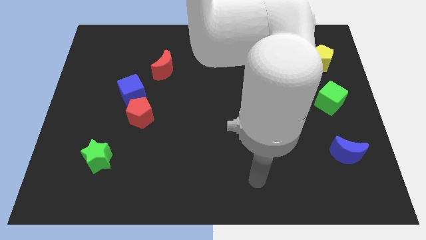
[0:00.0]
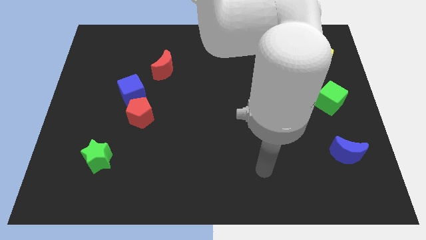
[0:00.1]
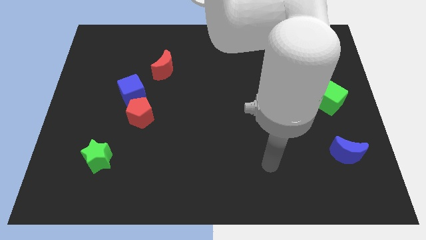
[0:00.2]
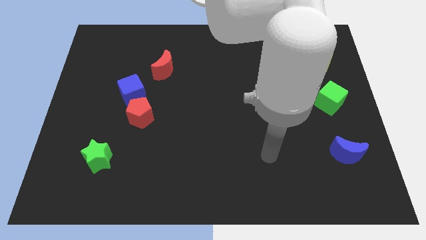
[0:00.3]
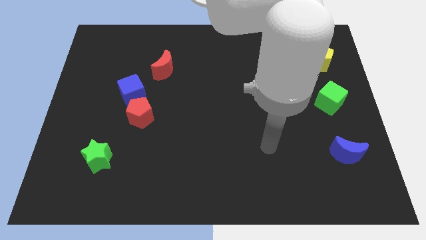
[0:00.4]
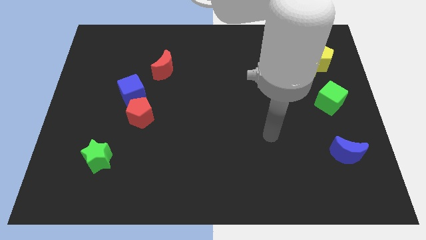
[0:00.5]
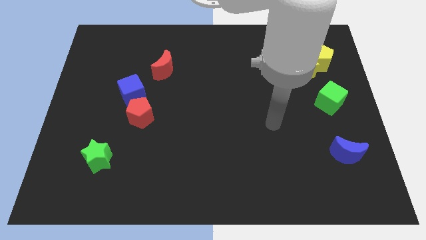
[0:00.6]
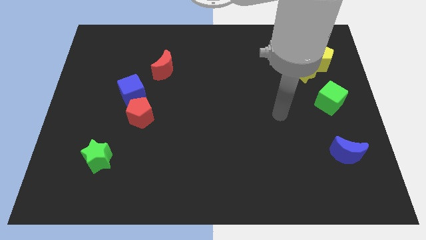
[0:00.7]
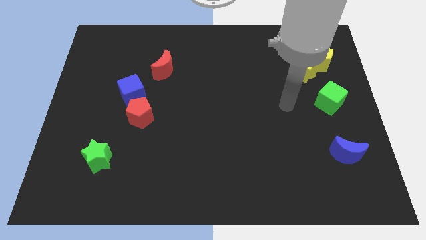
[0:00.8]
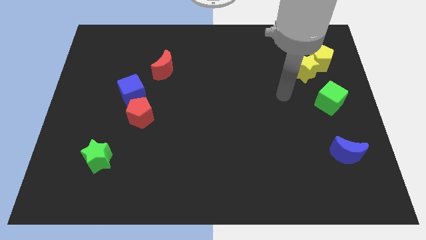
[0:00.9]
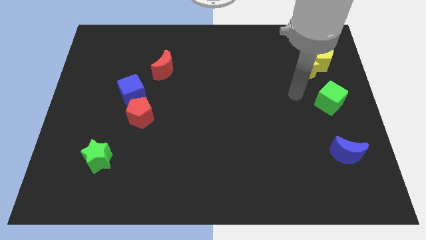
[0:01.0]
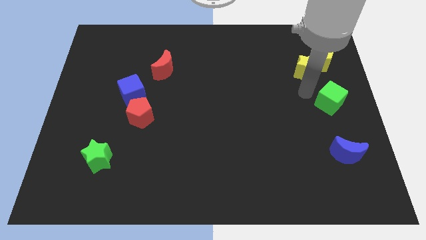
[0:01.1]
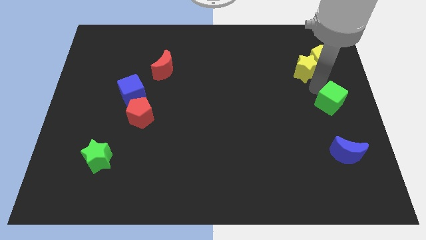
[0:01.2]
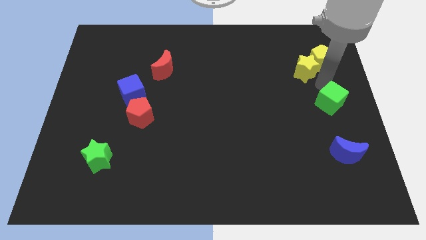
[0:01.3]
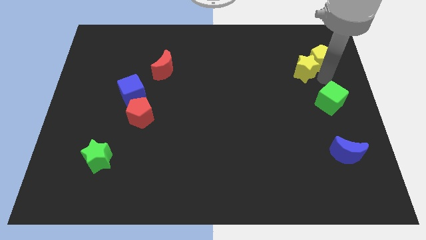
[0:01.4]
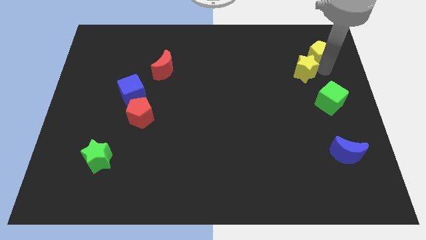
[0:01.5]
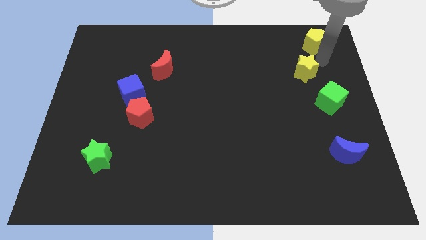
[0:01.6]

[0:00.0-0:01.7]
move the yellow star away from the yellow pentagon

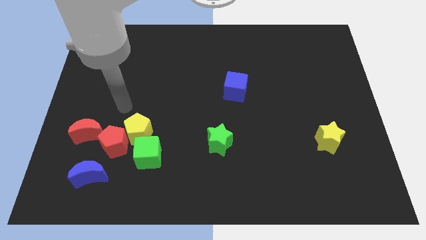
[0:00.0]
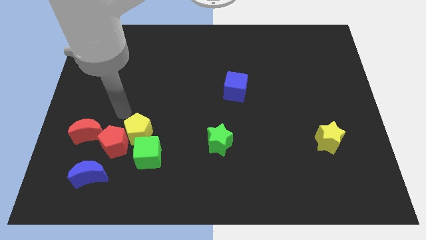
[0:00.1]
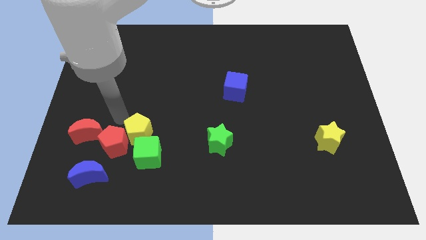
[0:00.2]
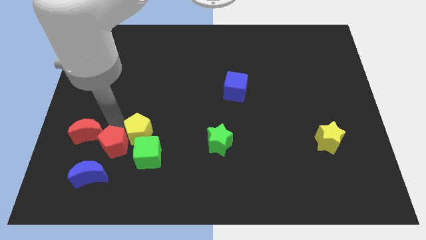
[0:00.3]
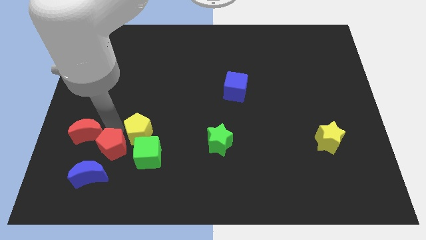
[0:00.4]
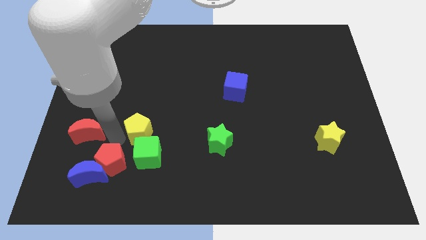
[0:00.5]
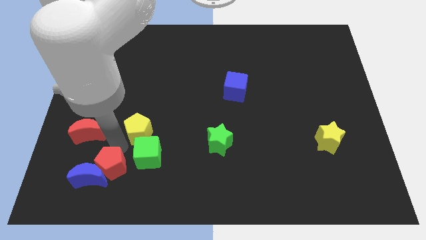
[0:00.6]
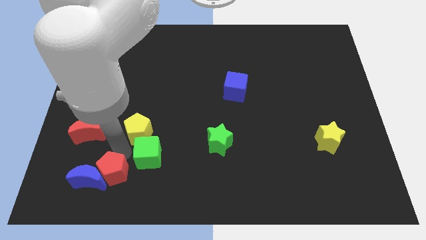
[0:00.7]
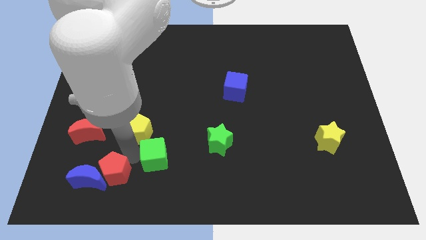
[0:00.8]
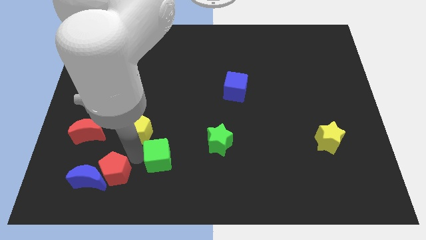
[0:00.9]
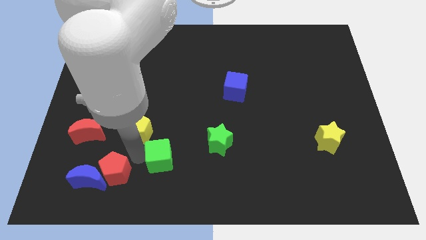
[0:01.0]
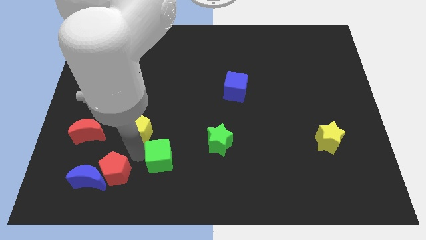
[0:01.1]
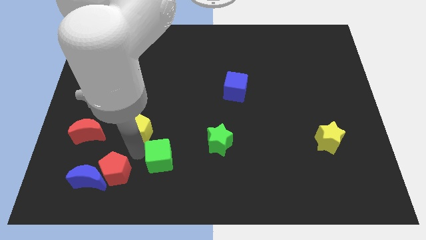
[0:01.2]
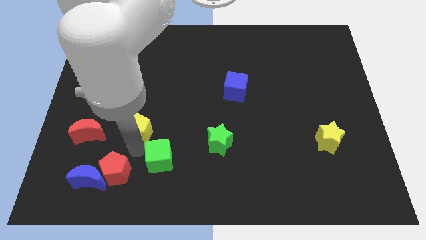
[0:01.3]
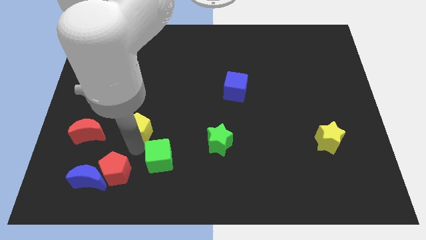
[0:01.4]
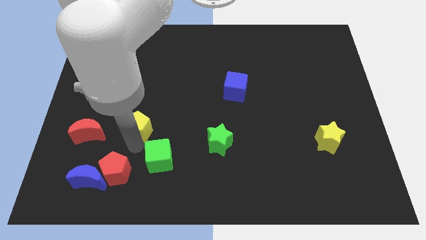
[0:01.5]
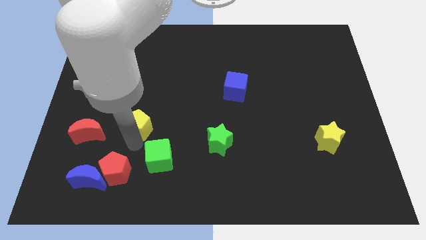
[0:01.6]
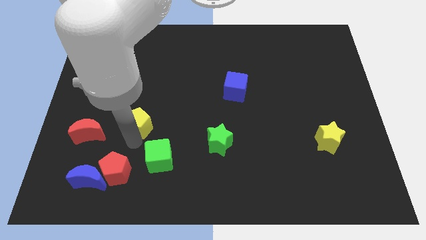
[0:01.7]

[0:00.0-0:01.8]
separate the yellow pentagon from the red pentagon and green cube

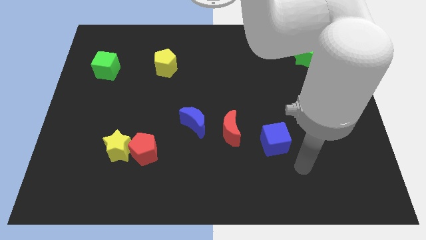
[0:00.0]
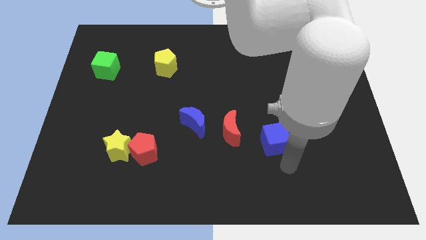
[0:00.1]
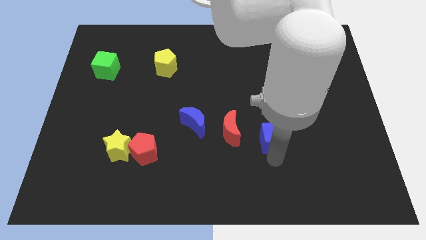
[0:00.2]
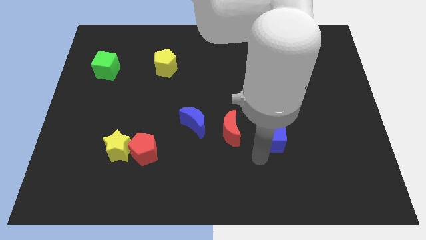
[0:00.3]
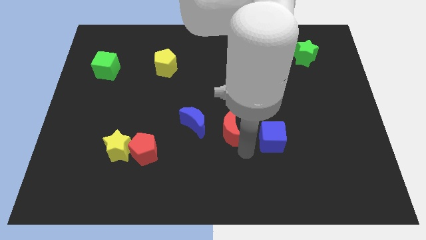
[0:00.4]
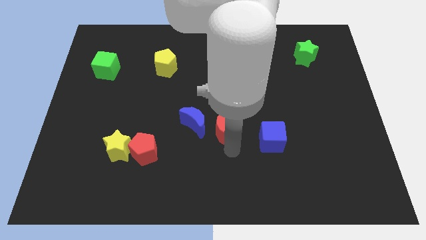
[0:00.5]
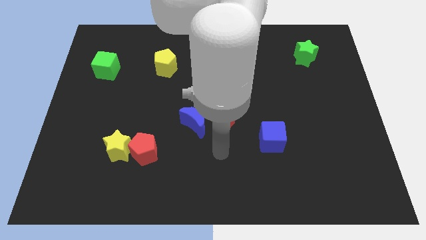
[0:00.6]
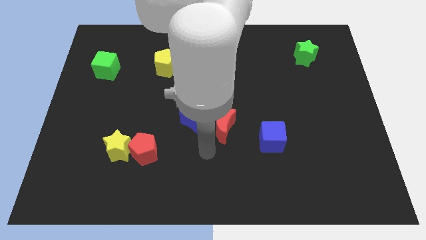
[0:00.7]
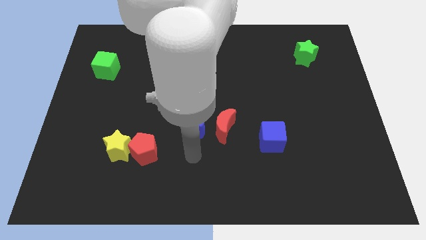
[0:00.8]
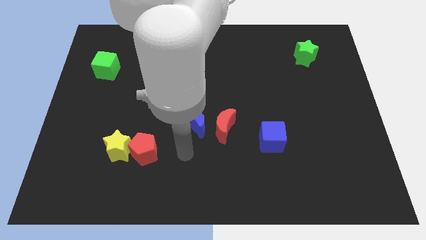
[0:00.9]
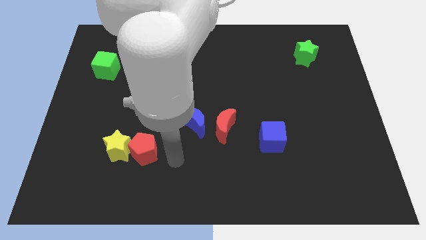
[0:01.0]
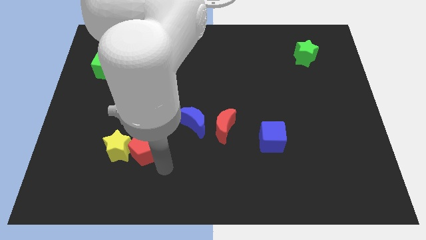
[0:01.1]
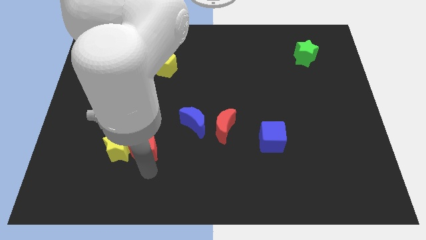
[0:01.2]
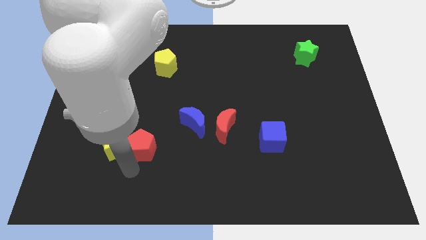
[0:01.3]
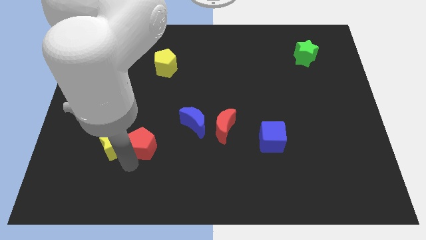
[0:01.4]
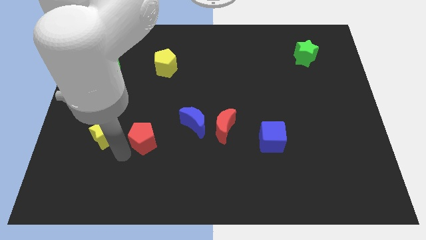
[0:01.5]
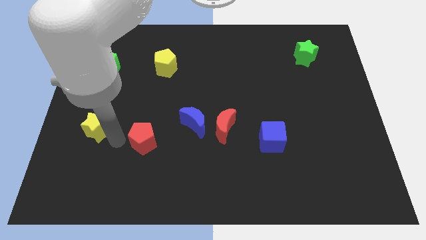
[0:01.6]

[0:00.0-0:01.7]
pull the red pentagon apart from the yellow star

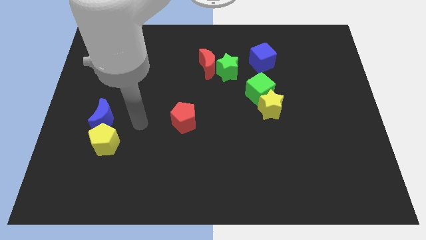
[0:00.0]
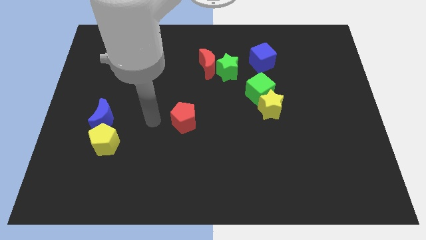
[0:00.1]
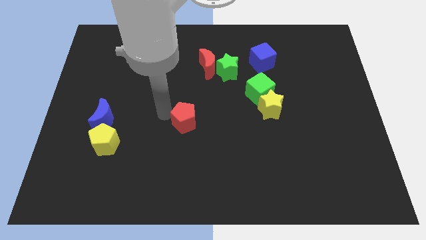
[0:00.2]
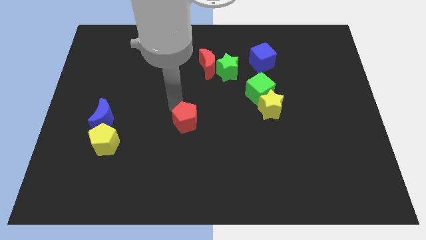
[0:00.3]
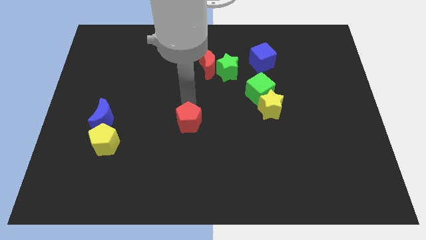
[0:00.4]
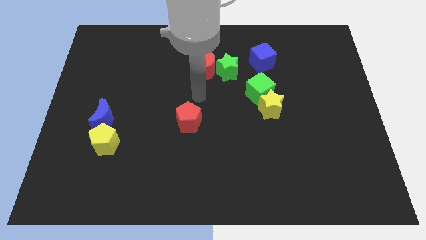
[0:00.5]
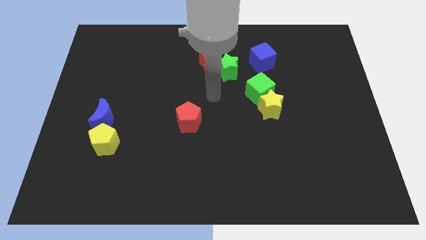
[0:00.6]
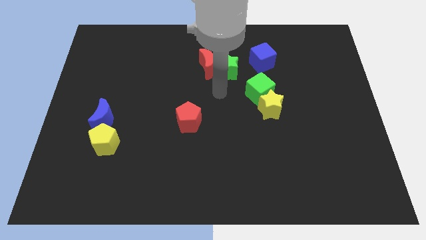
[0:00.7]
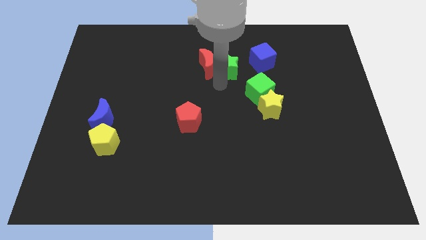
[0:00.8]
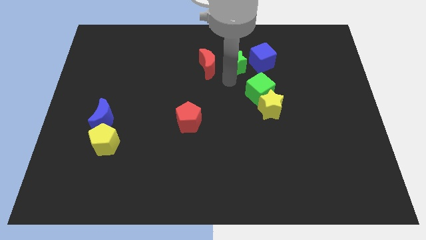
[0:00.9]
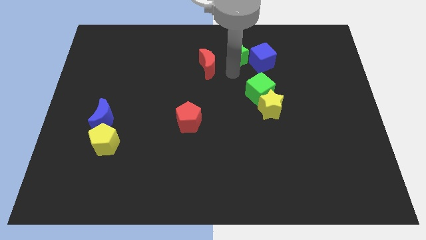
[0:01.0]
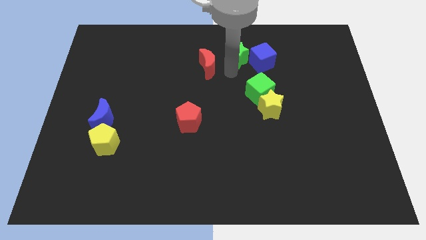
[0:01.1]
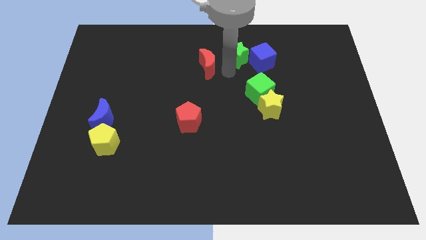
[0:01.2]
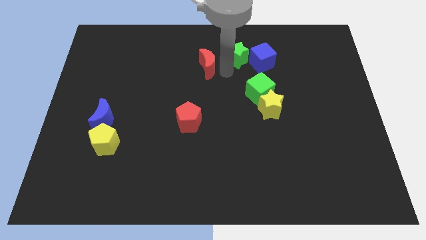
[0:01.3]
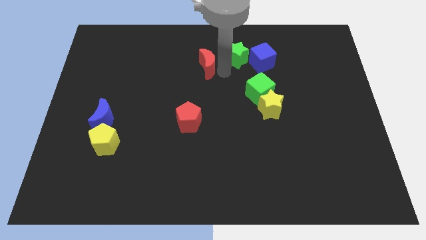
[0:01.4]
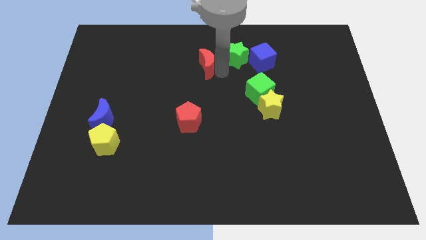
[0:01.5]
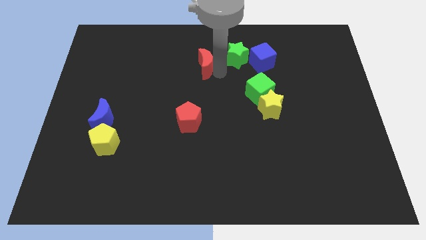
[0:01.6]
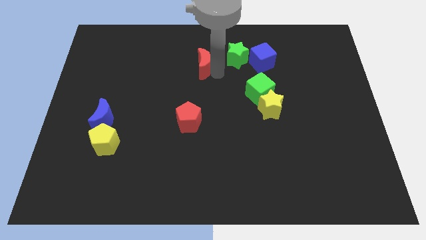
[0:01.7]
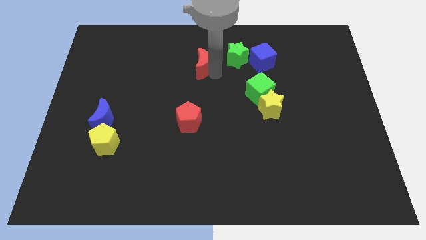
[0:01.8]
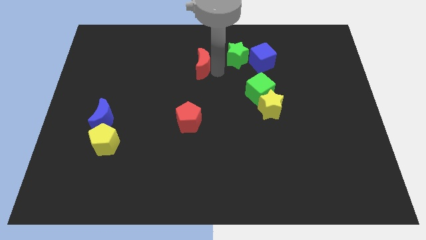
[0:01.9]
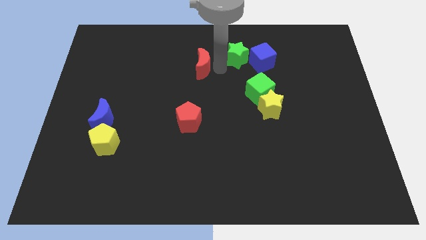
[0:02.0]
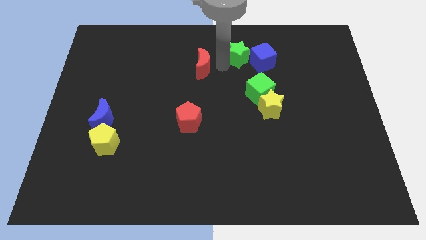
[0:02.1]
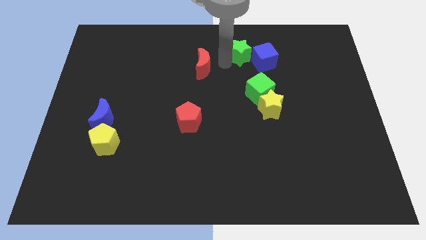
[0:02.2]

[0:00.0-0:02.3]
separate the red moon from the green star

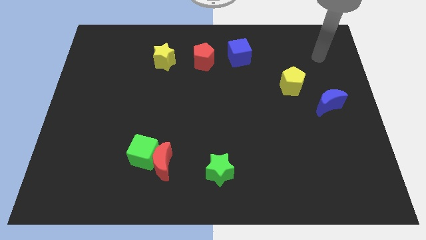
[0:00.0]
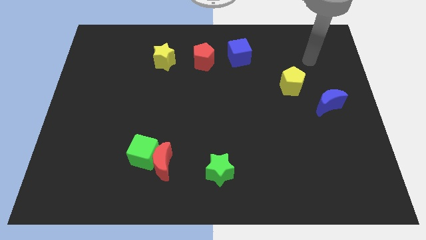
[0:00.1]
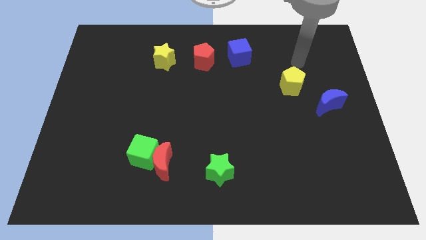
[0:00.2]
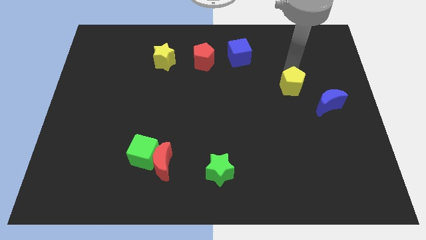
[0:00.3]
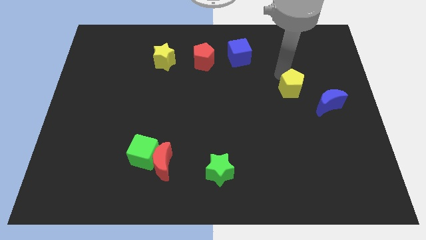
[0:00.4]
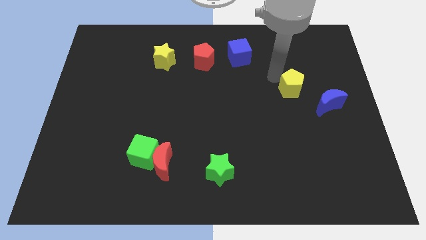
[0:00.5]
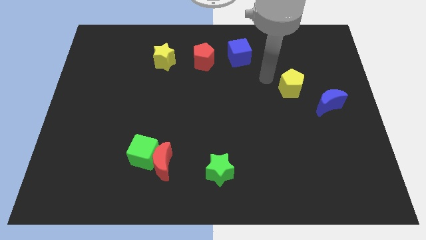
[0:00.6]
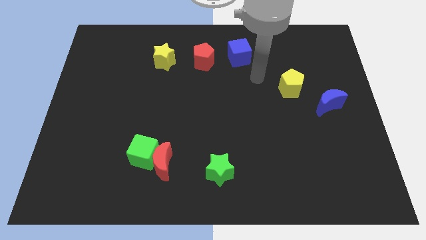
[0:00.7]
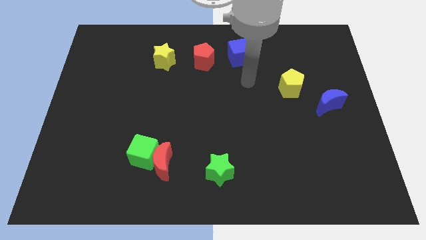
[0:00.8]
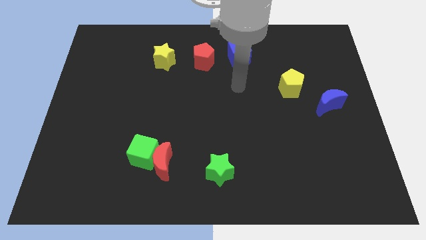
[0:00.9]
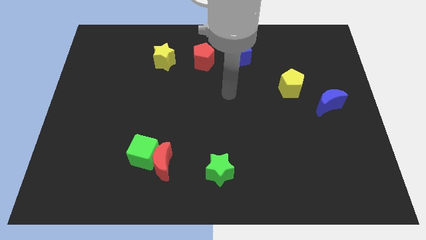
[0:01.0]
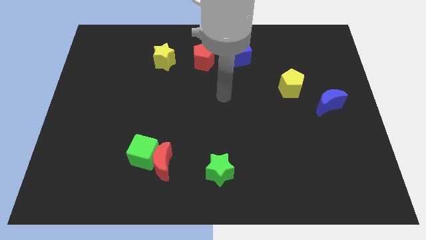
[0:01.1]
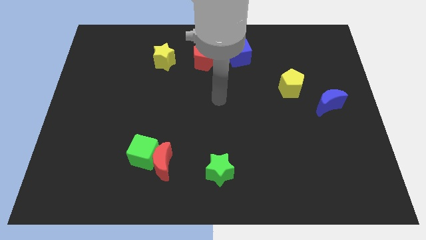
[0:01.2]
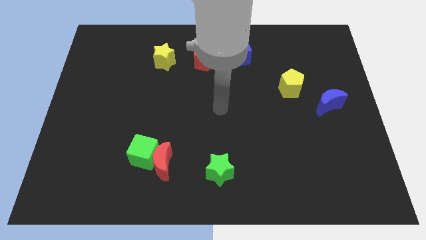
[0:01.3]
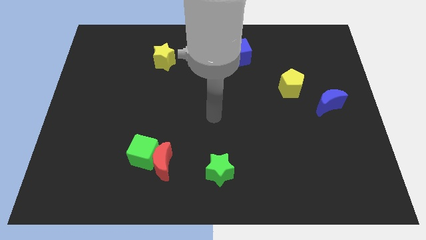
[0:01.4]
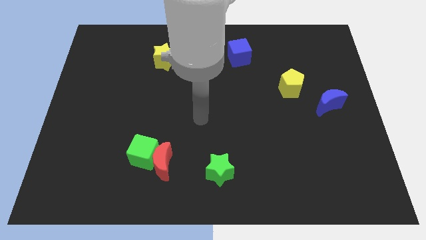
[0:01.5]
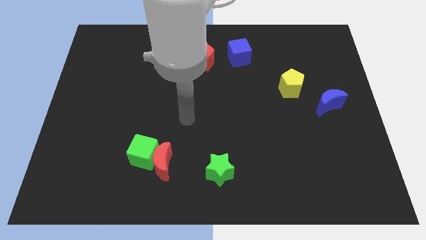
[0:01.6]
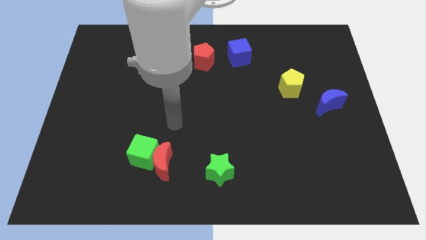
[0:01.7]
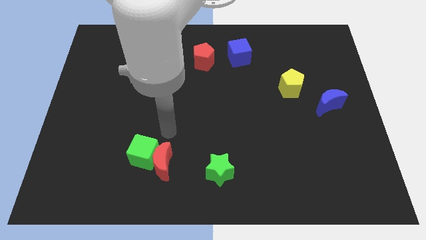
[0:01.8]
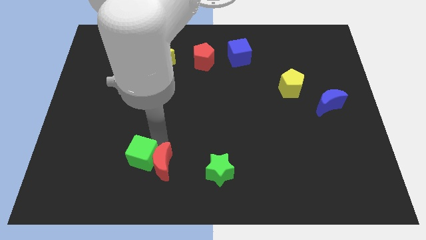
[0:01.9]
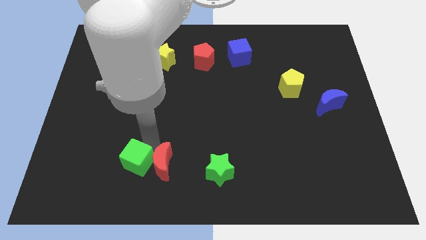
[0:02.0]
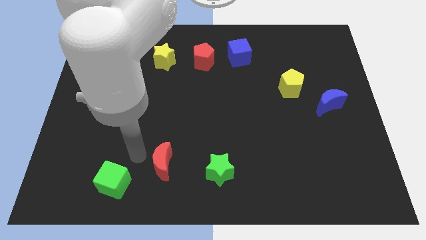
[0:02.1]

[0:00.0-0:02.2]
move the red moon away from the green cube
